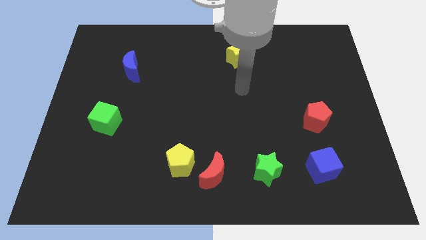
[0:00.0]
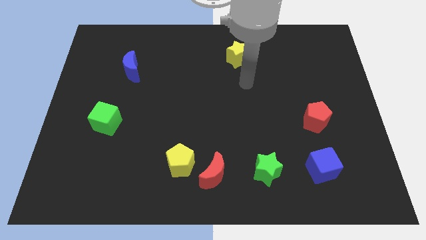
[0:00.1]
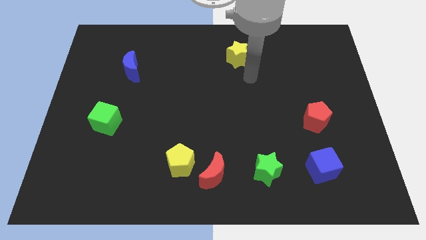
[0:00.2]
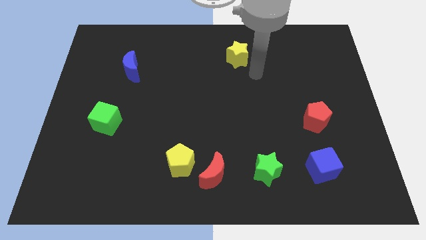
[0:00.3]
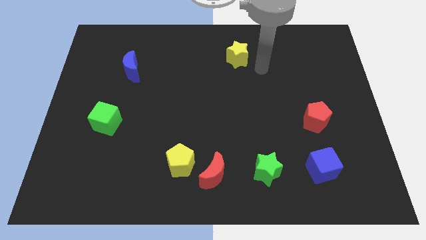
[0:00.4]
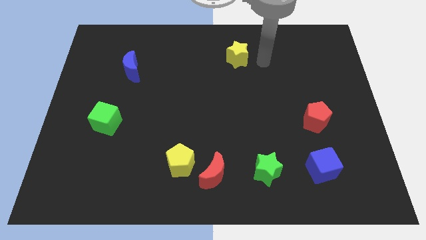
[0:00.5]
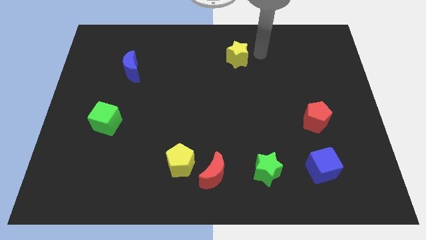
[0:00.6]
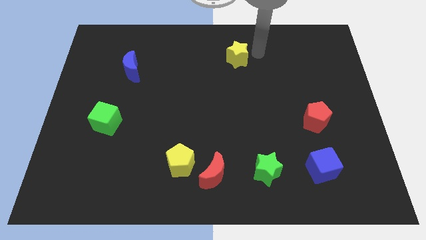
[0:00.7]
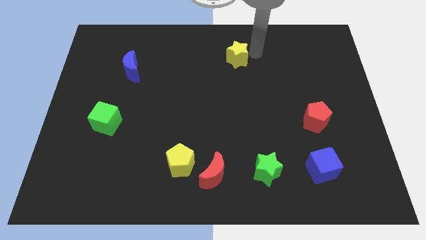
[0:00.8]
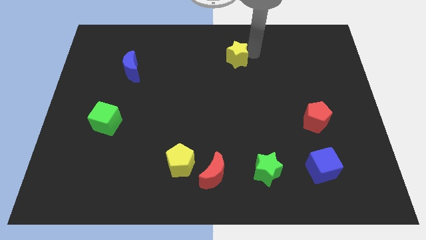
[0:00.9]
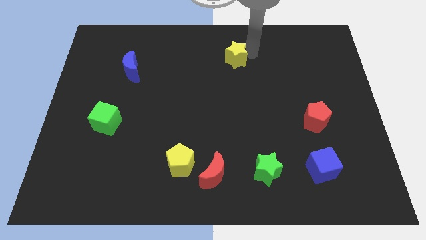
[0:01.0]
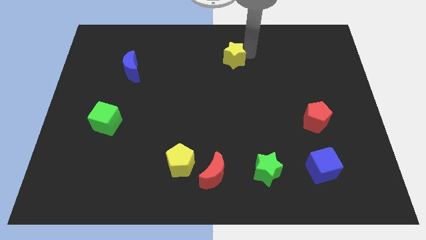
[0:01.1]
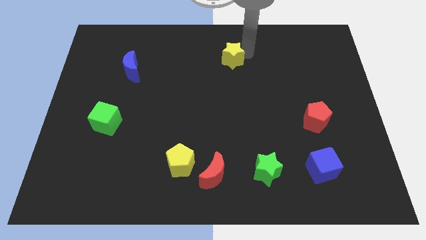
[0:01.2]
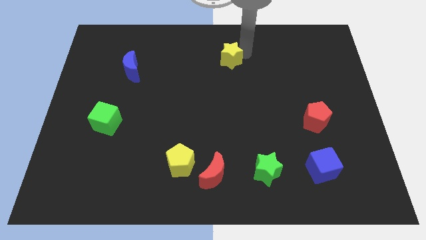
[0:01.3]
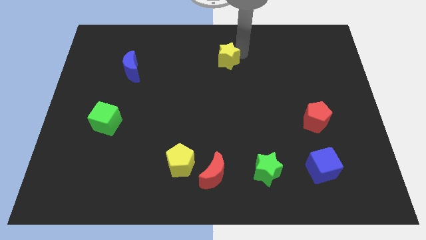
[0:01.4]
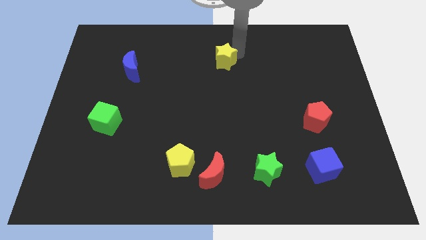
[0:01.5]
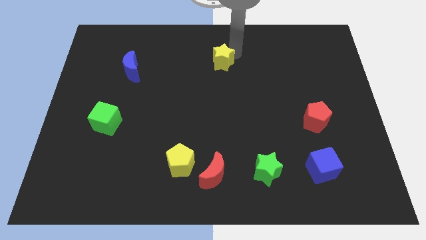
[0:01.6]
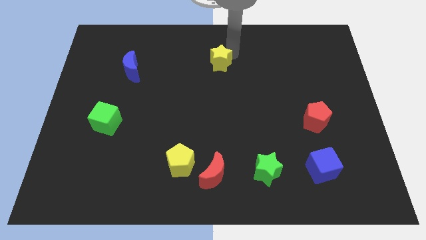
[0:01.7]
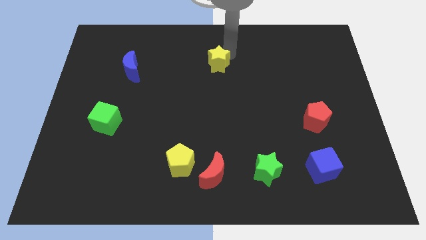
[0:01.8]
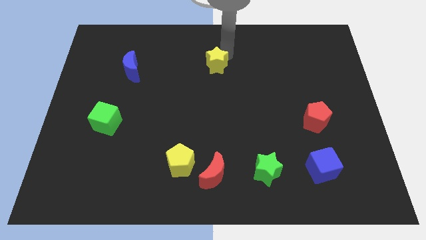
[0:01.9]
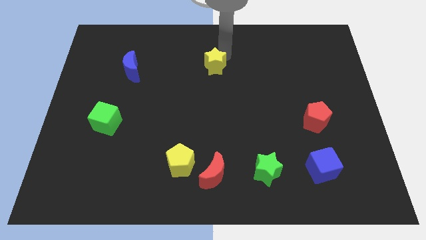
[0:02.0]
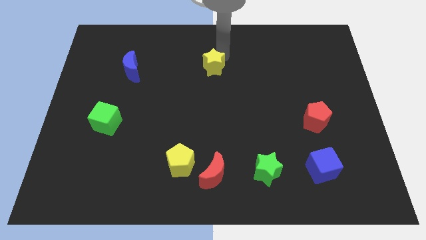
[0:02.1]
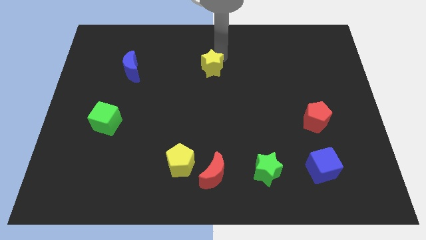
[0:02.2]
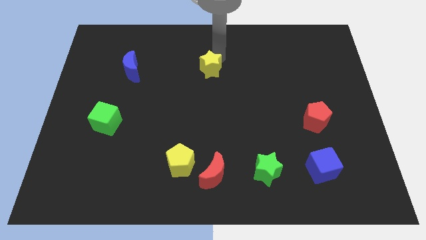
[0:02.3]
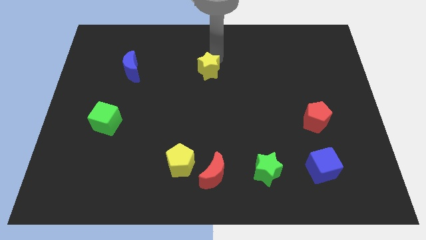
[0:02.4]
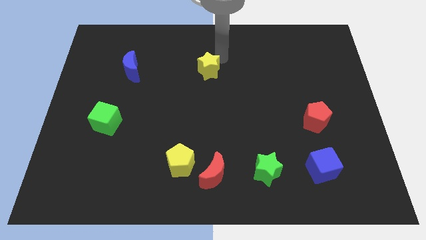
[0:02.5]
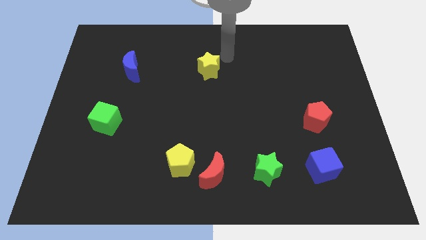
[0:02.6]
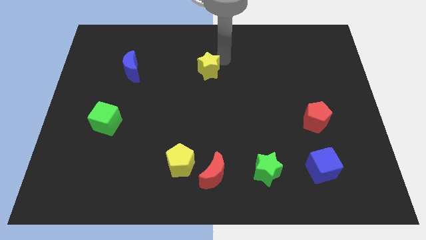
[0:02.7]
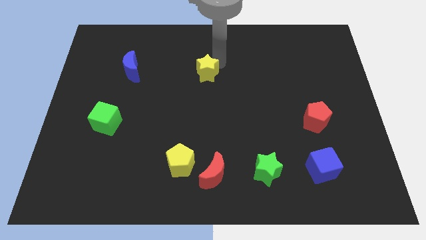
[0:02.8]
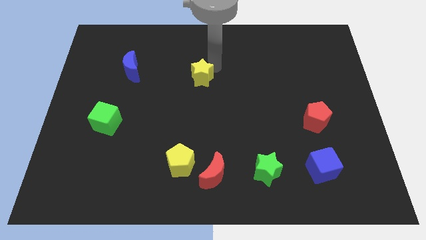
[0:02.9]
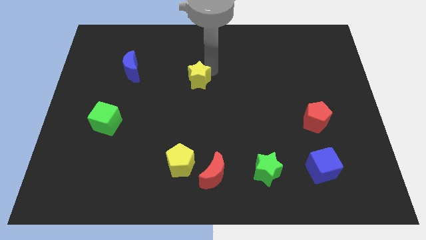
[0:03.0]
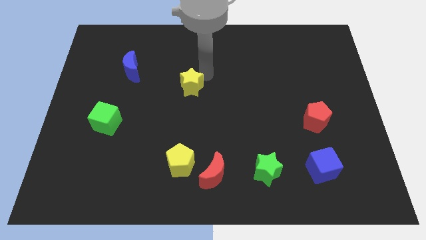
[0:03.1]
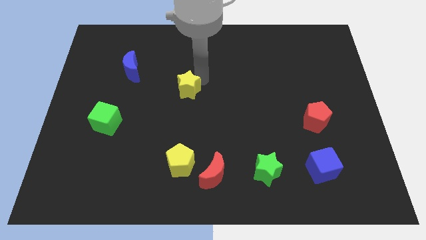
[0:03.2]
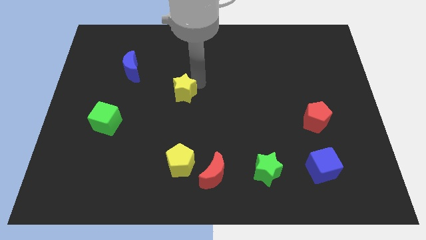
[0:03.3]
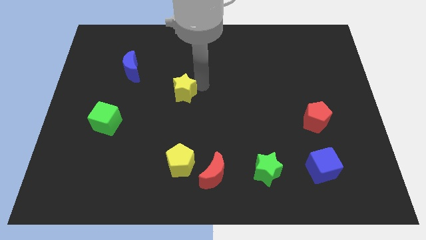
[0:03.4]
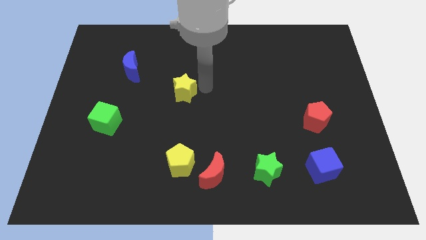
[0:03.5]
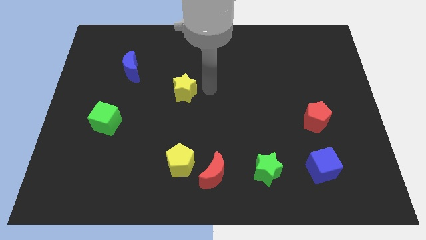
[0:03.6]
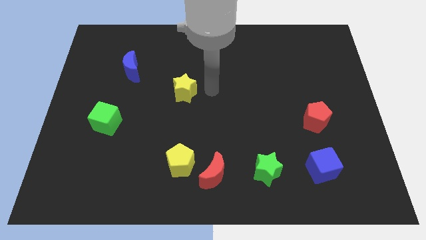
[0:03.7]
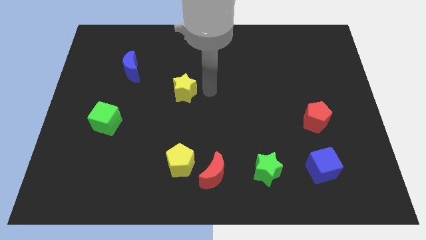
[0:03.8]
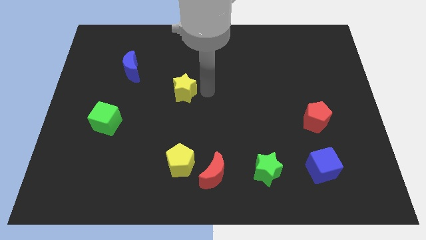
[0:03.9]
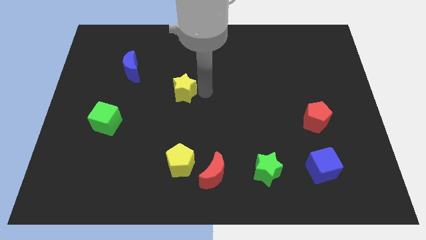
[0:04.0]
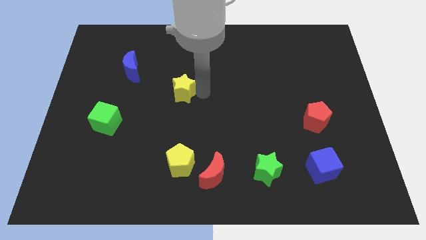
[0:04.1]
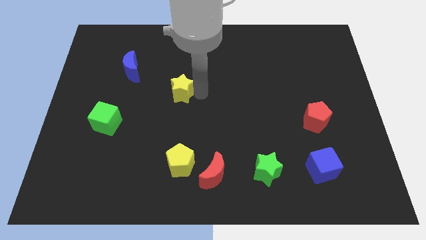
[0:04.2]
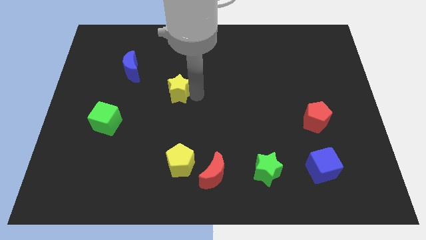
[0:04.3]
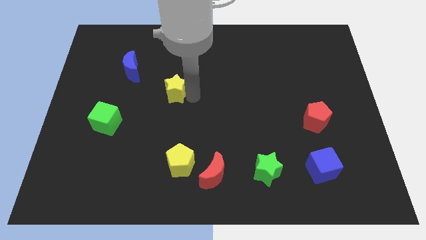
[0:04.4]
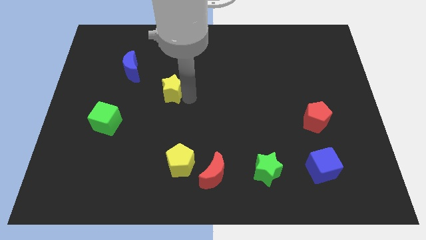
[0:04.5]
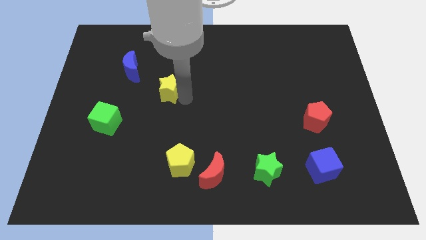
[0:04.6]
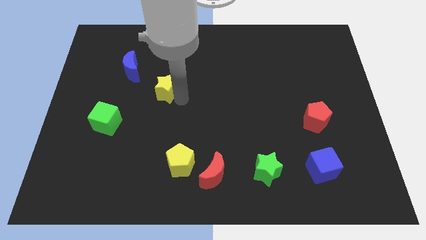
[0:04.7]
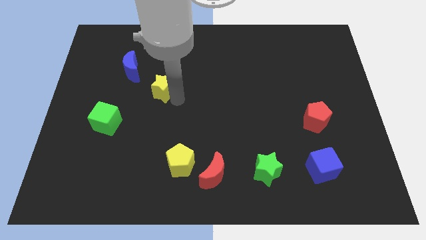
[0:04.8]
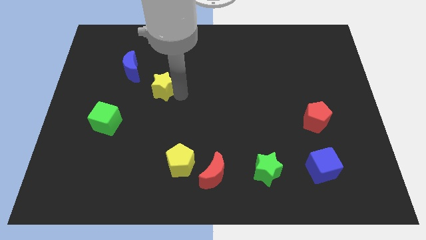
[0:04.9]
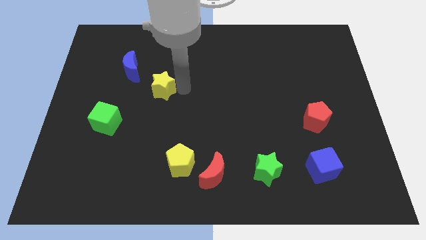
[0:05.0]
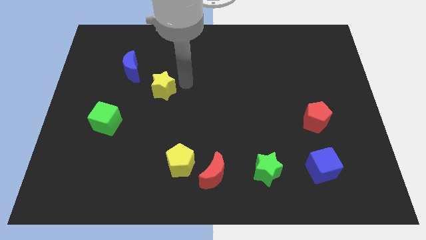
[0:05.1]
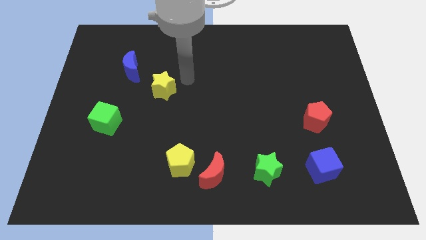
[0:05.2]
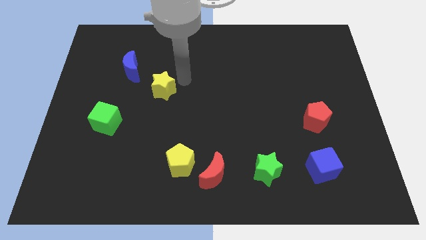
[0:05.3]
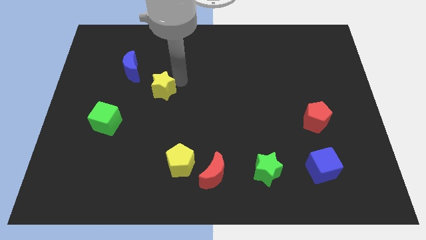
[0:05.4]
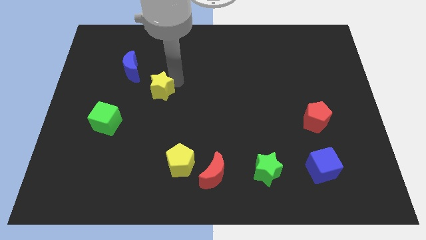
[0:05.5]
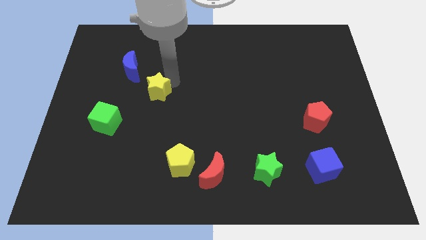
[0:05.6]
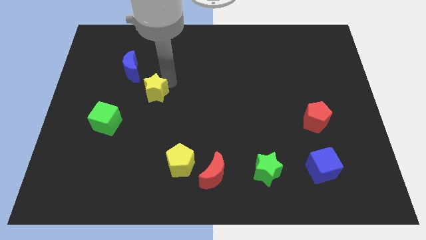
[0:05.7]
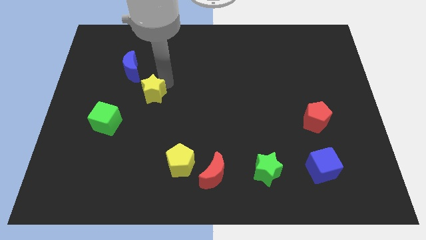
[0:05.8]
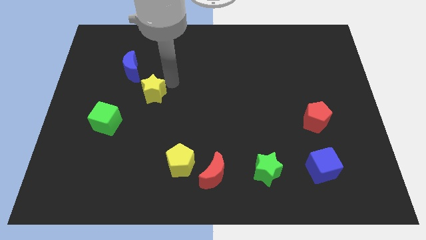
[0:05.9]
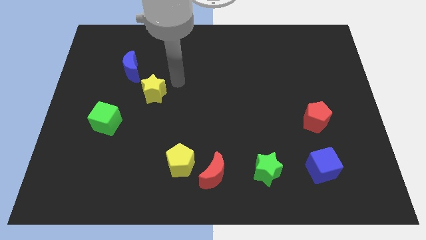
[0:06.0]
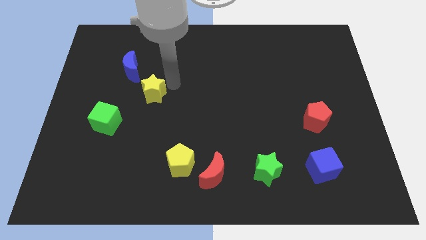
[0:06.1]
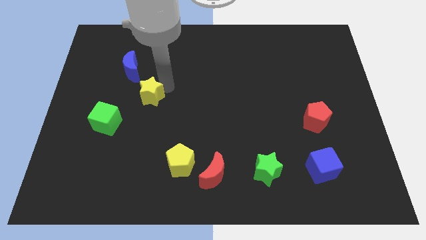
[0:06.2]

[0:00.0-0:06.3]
slide the yellow star to the top right of the green cube

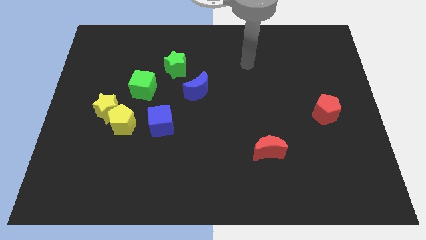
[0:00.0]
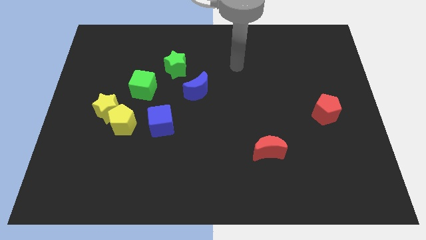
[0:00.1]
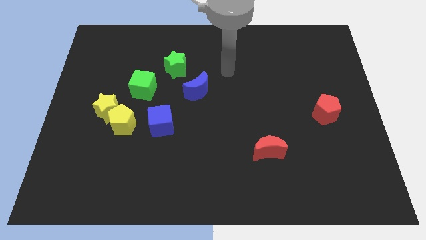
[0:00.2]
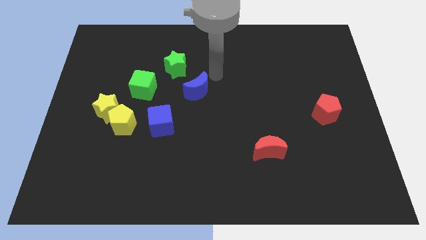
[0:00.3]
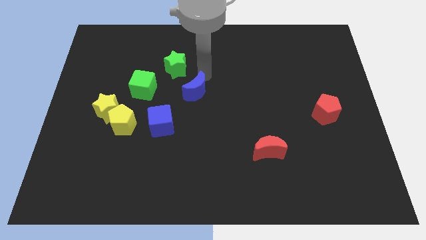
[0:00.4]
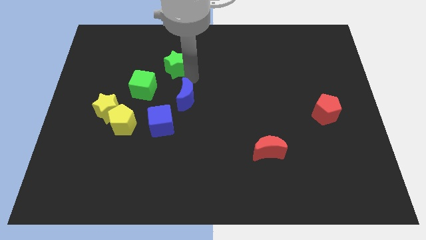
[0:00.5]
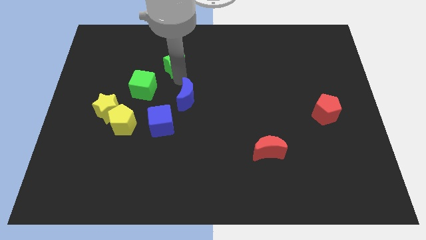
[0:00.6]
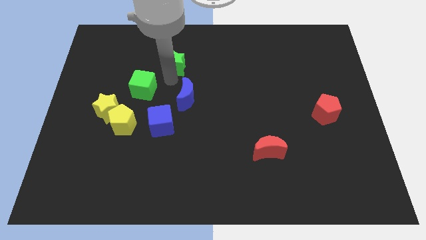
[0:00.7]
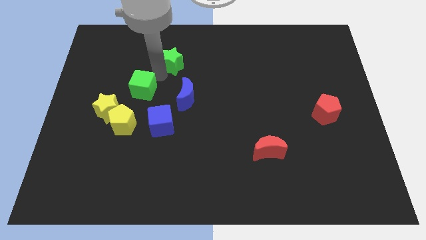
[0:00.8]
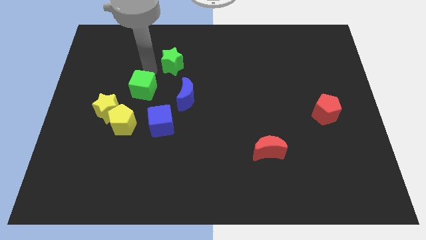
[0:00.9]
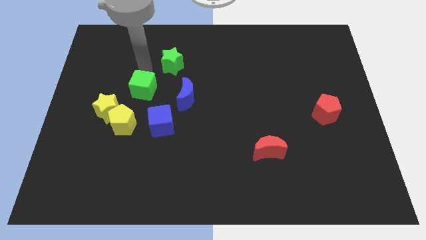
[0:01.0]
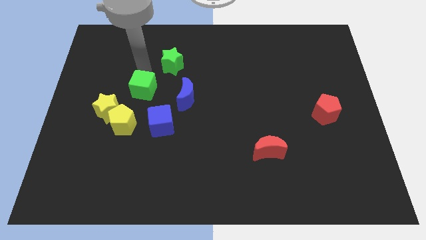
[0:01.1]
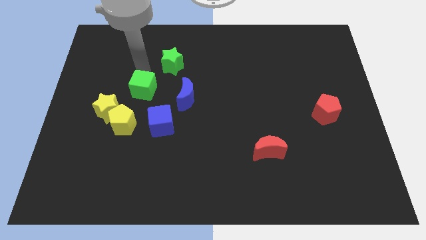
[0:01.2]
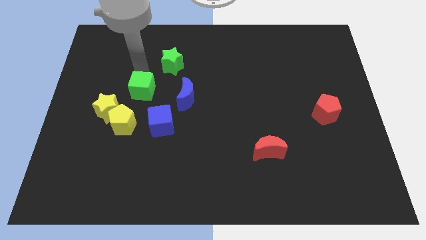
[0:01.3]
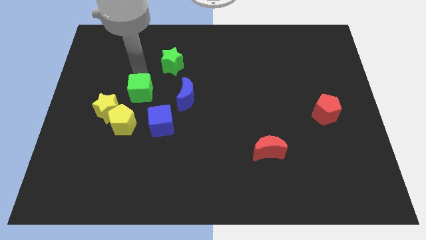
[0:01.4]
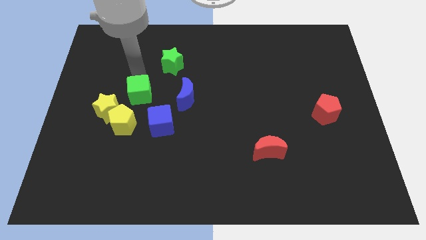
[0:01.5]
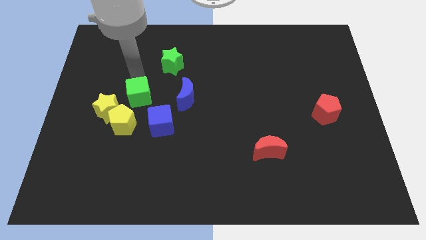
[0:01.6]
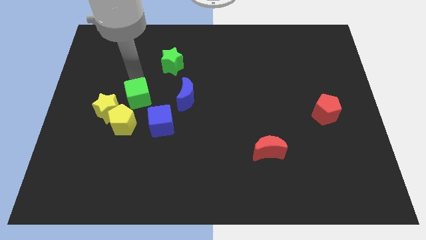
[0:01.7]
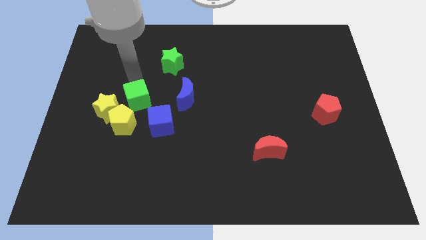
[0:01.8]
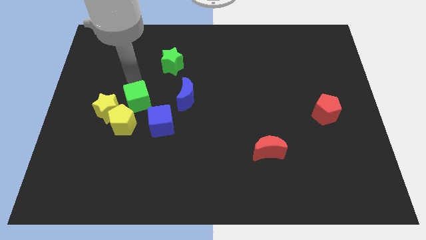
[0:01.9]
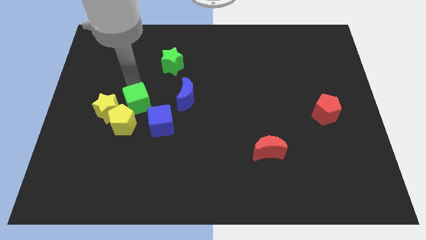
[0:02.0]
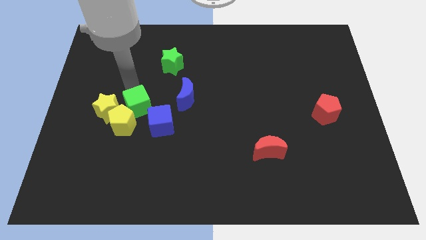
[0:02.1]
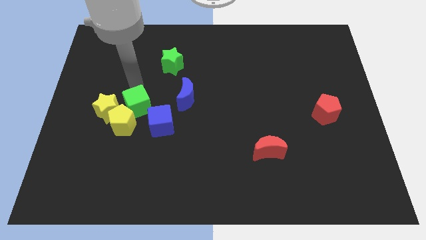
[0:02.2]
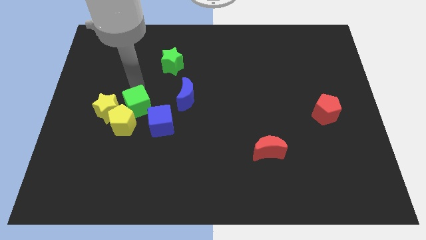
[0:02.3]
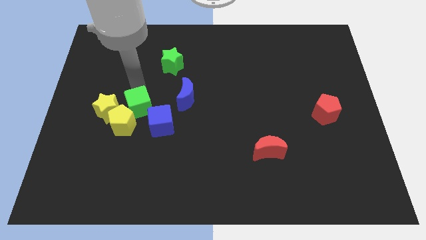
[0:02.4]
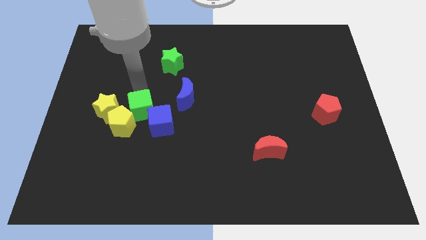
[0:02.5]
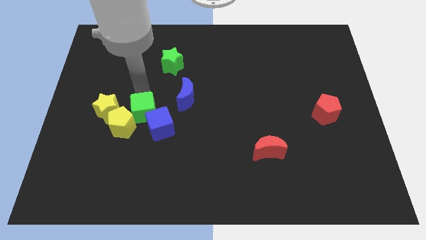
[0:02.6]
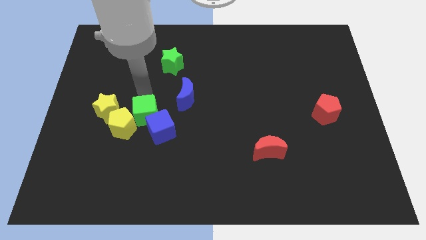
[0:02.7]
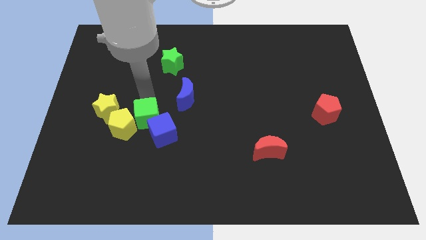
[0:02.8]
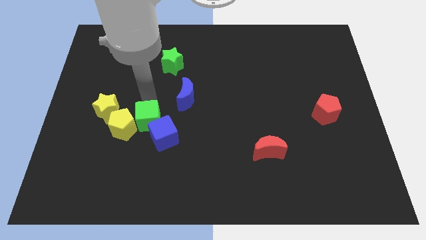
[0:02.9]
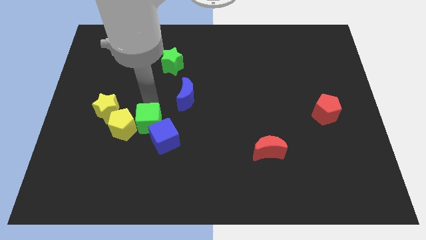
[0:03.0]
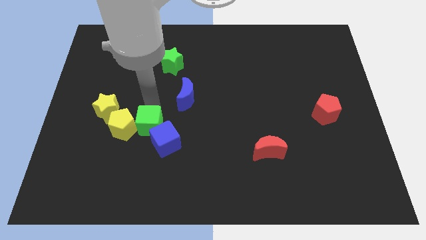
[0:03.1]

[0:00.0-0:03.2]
push the green cube to the bottom right side of the yellow pentagon
